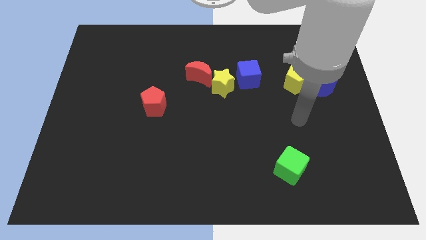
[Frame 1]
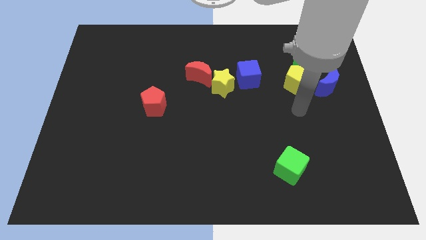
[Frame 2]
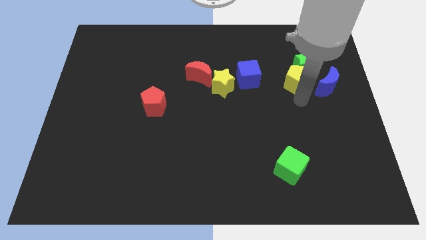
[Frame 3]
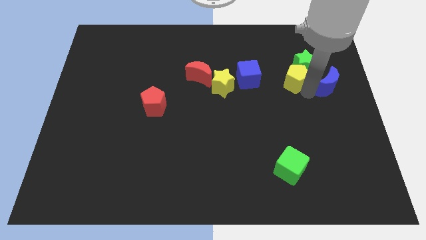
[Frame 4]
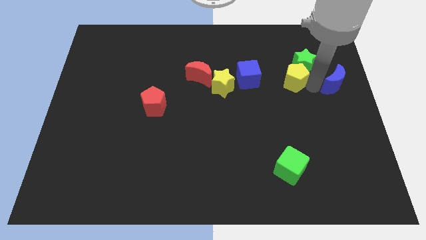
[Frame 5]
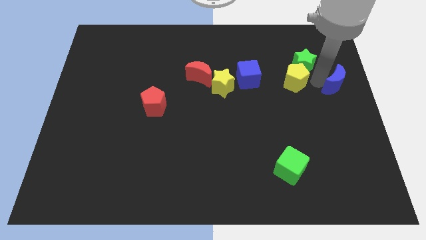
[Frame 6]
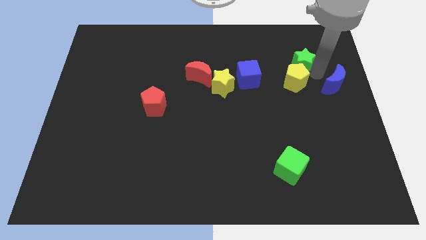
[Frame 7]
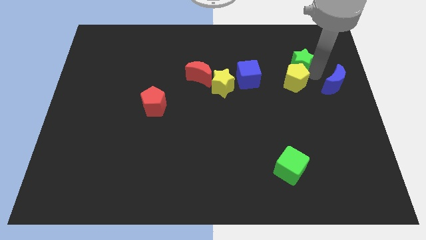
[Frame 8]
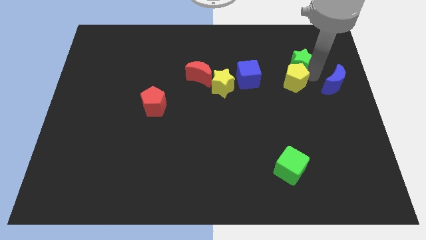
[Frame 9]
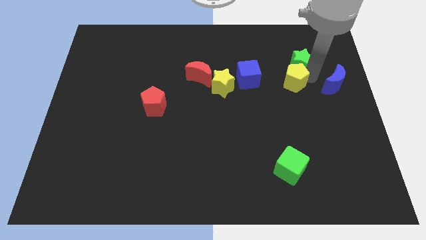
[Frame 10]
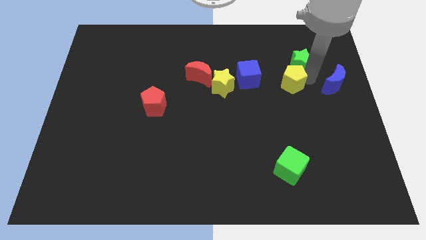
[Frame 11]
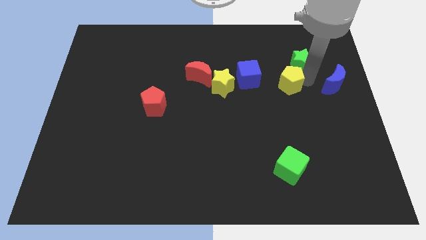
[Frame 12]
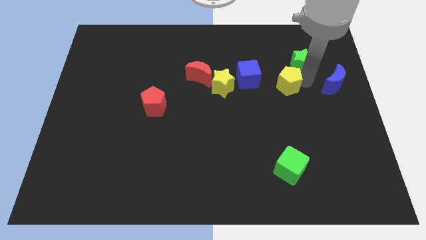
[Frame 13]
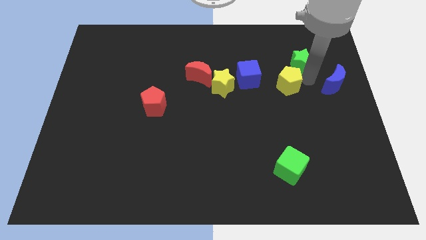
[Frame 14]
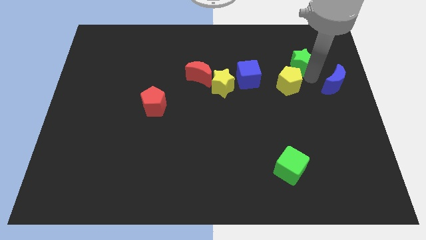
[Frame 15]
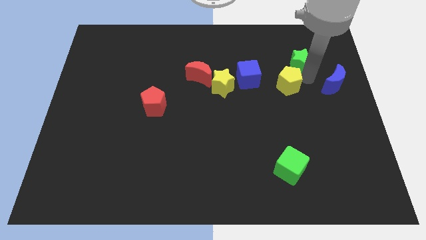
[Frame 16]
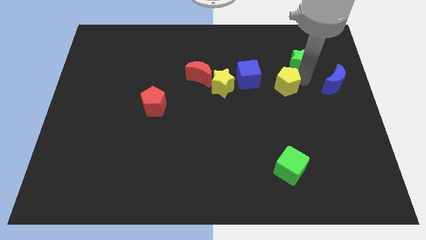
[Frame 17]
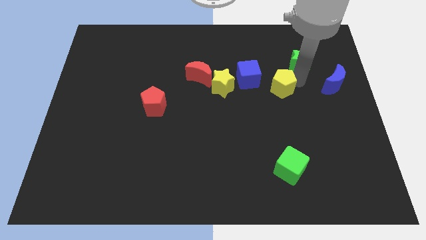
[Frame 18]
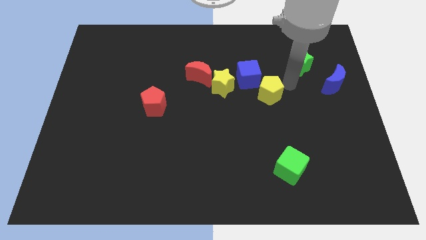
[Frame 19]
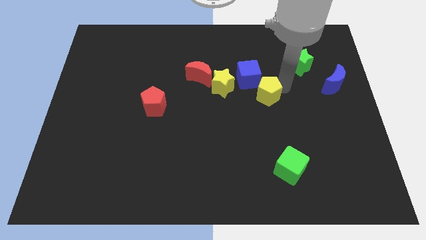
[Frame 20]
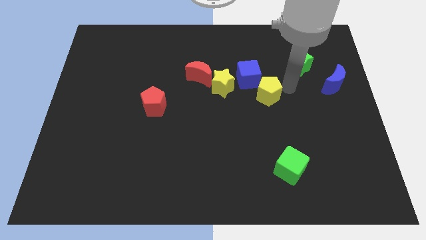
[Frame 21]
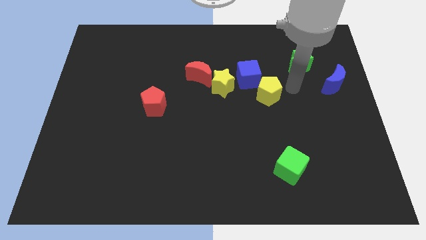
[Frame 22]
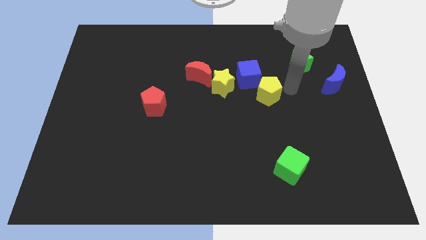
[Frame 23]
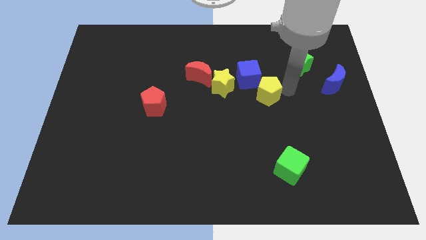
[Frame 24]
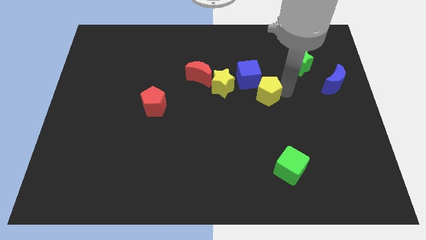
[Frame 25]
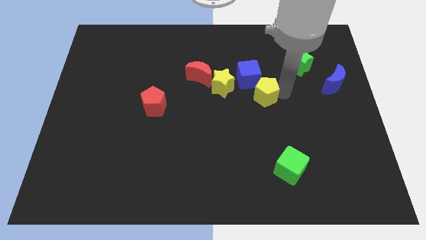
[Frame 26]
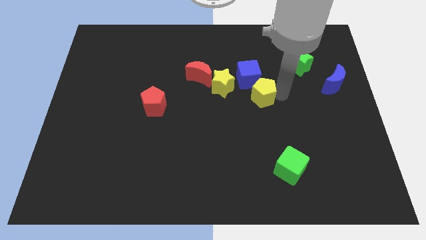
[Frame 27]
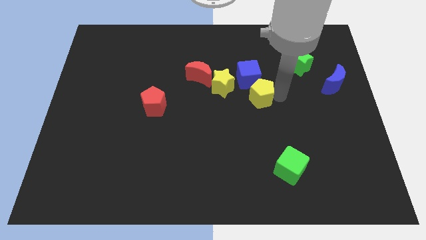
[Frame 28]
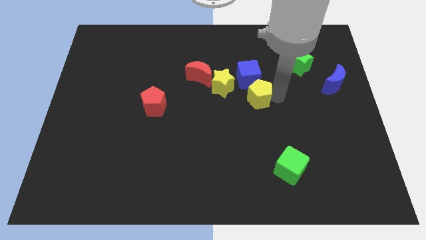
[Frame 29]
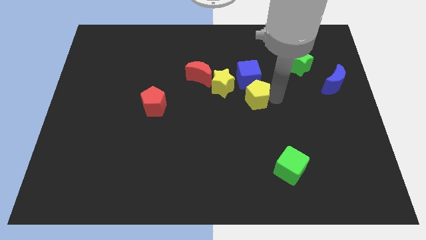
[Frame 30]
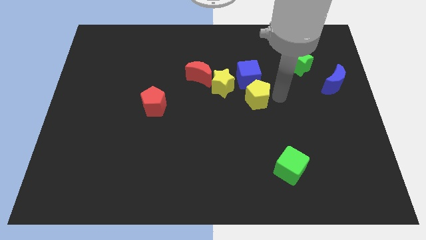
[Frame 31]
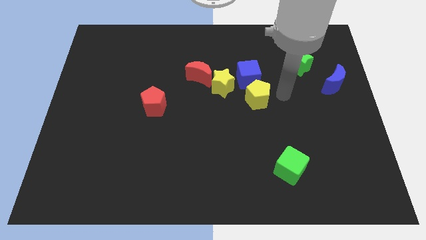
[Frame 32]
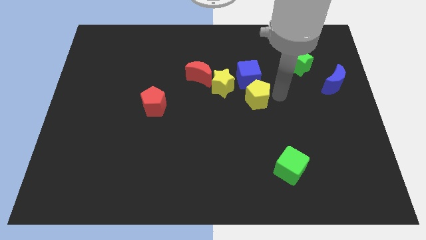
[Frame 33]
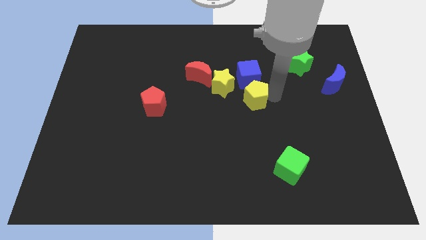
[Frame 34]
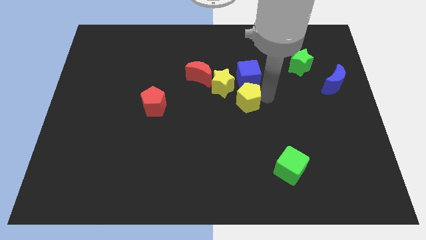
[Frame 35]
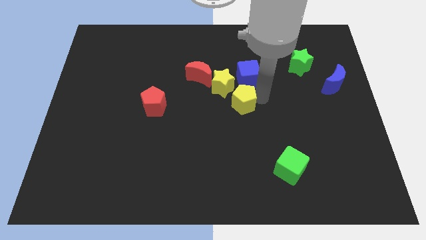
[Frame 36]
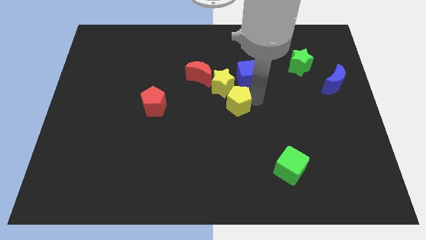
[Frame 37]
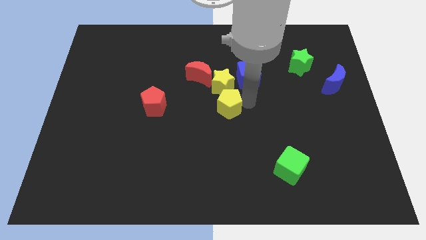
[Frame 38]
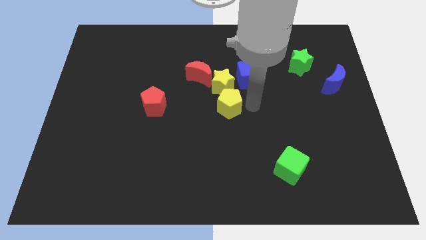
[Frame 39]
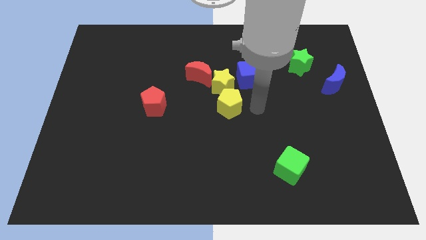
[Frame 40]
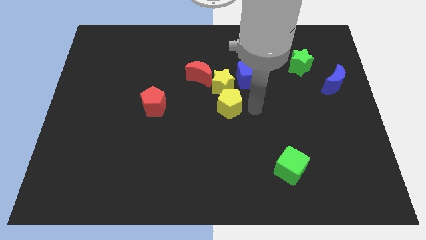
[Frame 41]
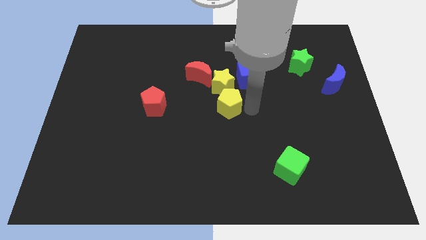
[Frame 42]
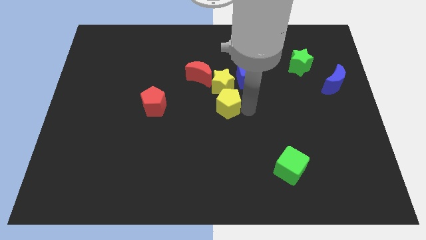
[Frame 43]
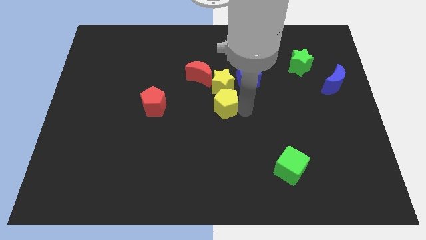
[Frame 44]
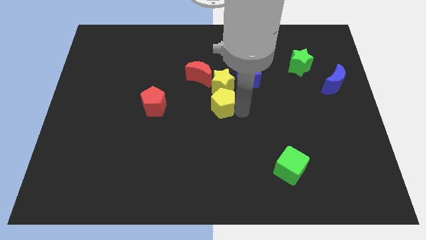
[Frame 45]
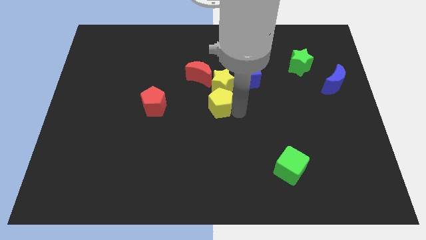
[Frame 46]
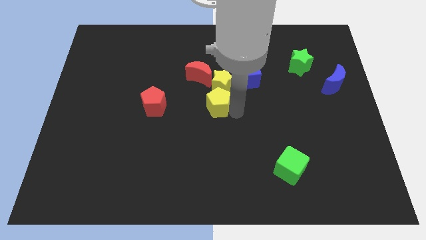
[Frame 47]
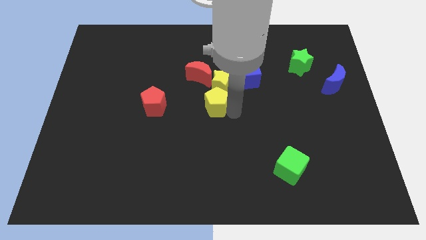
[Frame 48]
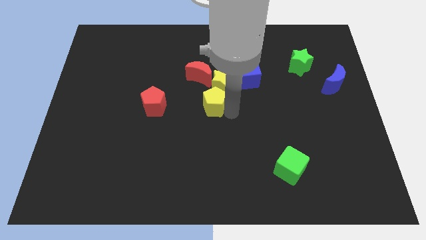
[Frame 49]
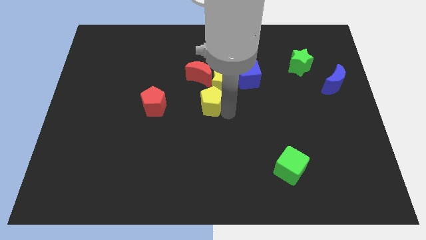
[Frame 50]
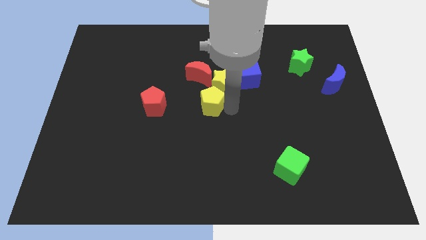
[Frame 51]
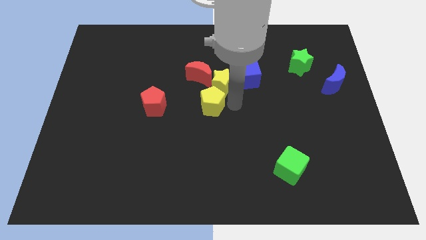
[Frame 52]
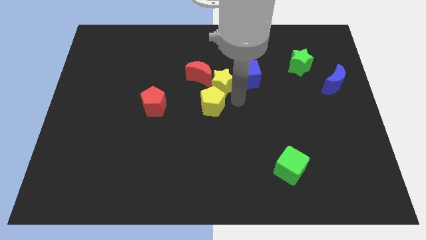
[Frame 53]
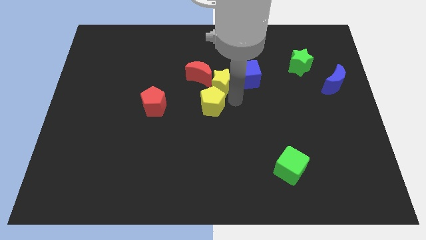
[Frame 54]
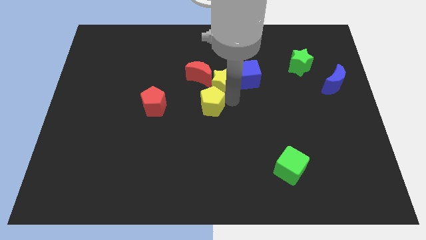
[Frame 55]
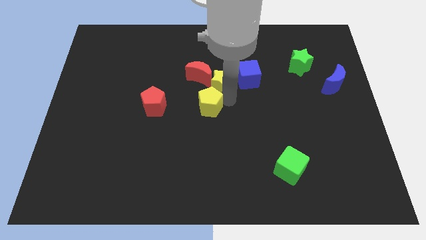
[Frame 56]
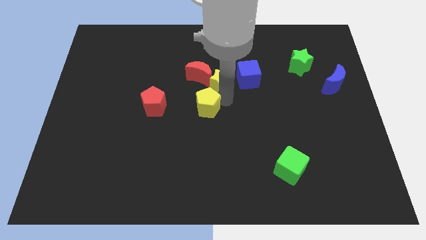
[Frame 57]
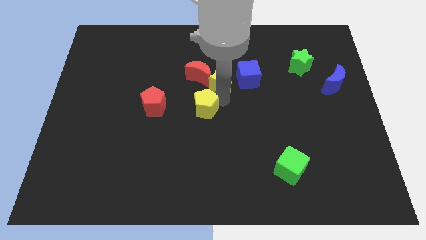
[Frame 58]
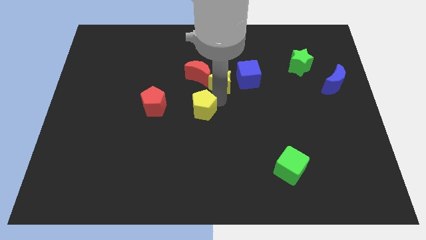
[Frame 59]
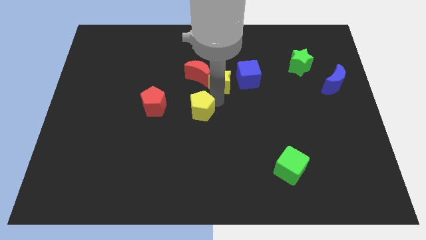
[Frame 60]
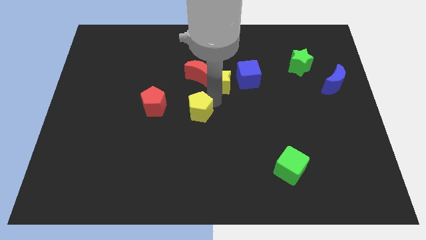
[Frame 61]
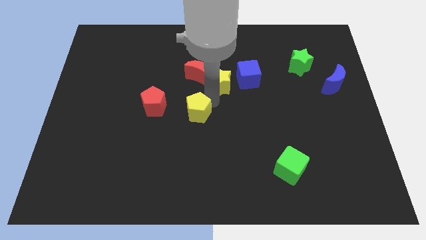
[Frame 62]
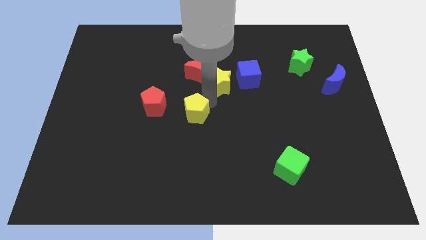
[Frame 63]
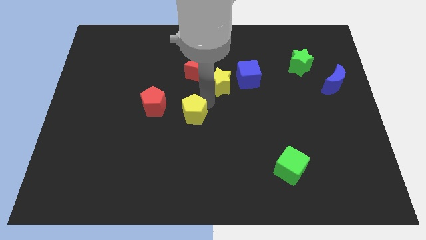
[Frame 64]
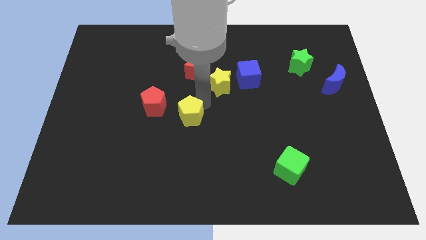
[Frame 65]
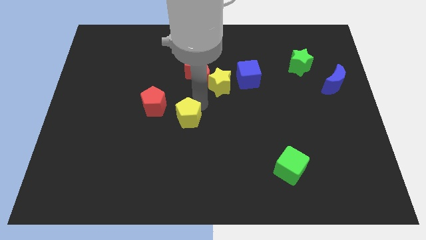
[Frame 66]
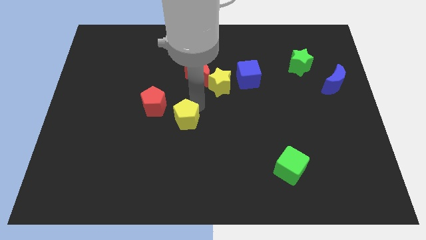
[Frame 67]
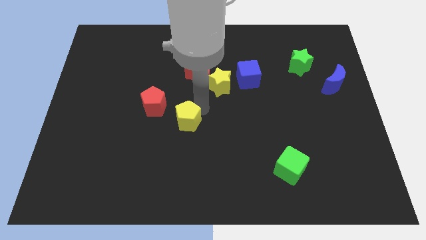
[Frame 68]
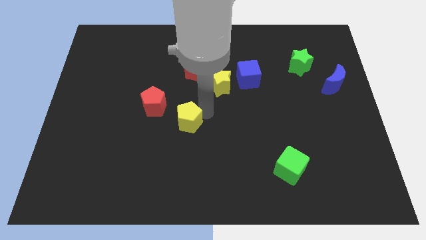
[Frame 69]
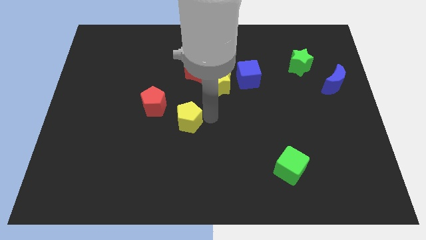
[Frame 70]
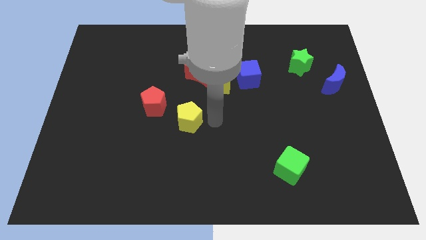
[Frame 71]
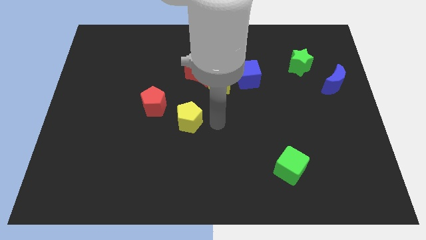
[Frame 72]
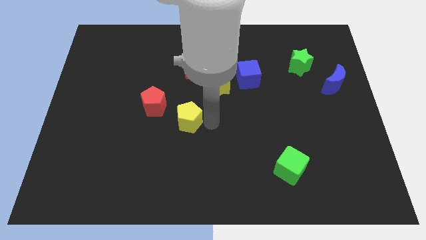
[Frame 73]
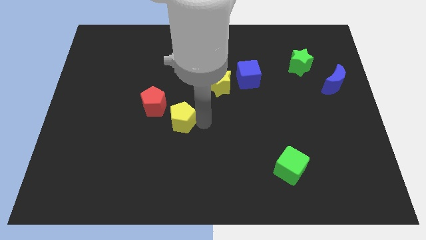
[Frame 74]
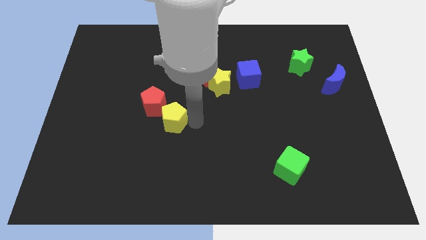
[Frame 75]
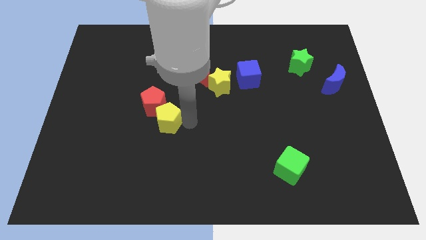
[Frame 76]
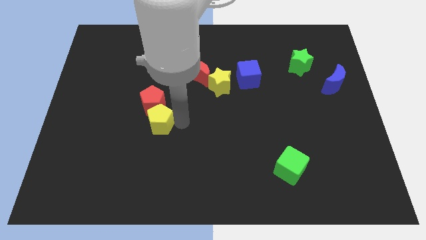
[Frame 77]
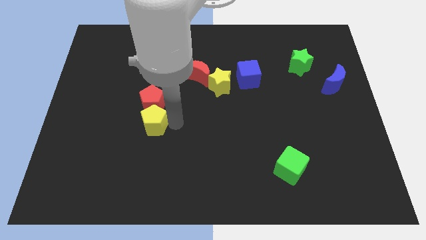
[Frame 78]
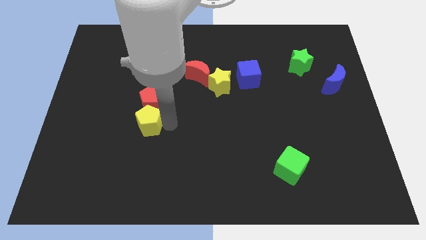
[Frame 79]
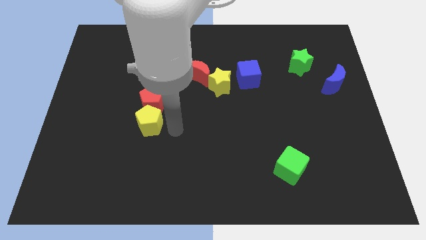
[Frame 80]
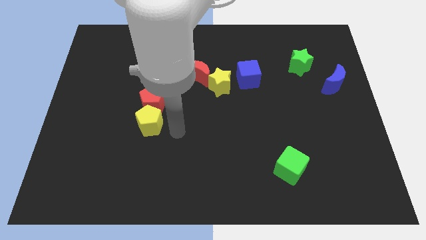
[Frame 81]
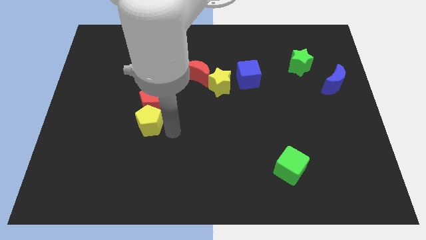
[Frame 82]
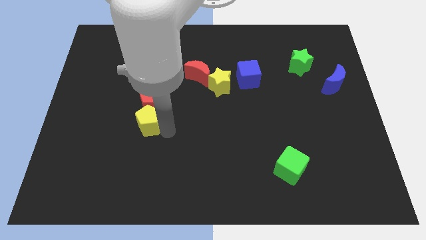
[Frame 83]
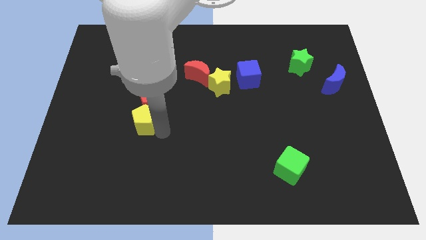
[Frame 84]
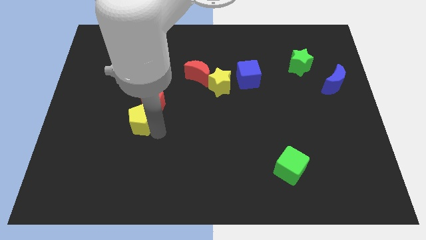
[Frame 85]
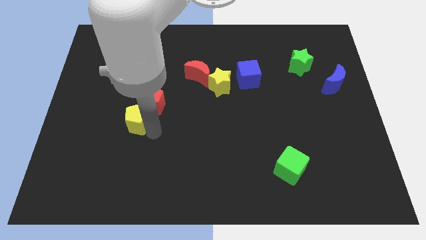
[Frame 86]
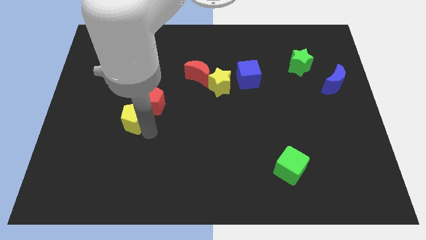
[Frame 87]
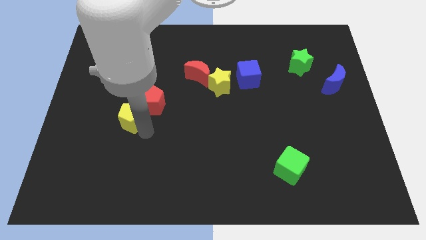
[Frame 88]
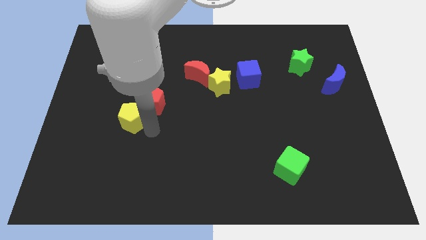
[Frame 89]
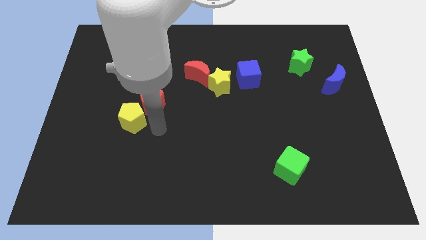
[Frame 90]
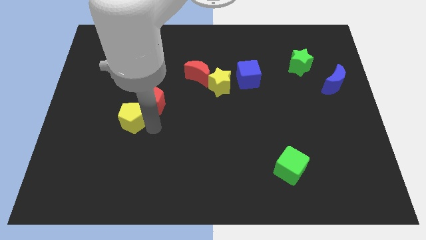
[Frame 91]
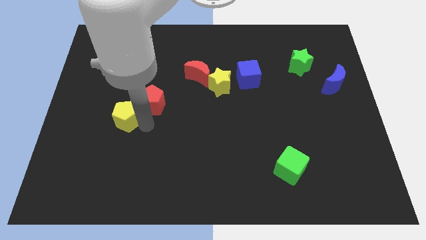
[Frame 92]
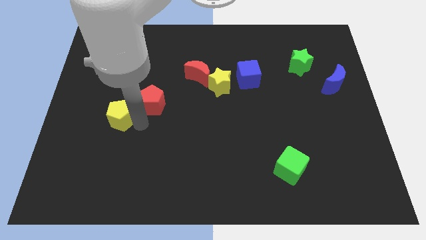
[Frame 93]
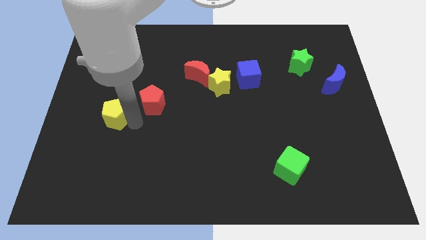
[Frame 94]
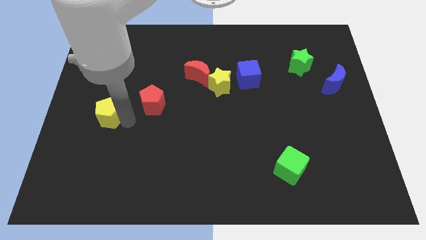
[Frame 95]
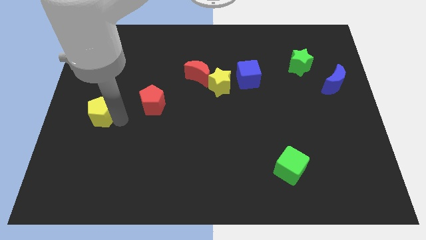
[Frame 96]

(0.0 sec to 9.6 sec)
push the yellow pentagon to the left side
